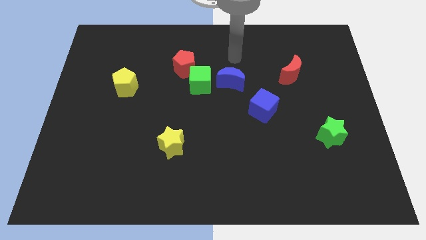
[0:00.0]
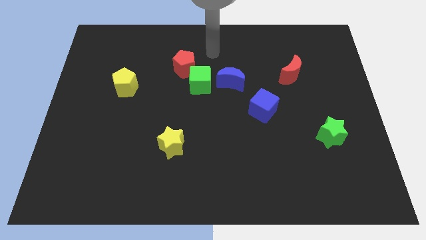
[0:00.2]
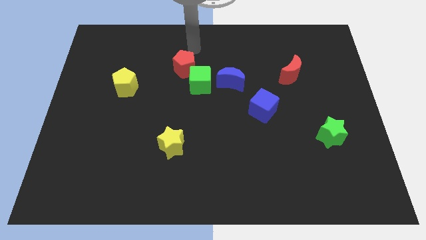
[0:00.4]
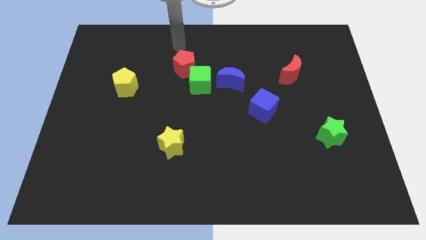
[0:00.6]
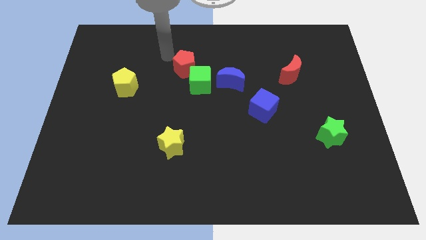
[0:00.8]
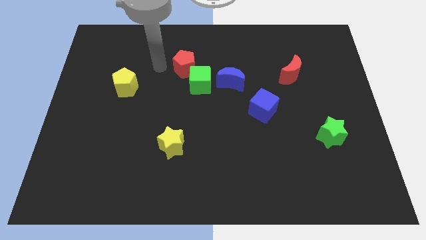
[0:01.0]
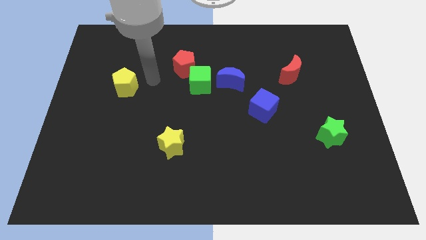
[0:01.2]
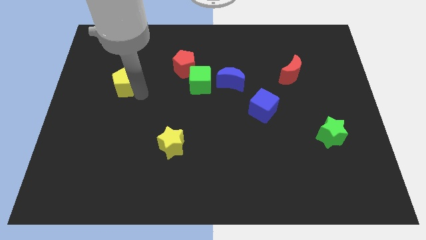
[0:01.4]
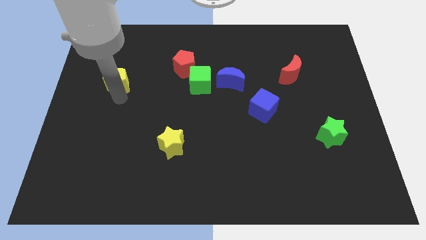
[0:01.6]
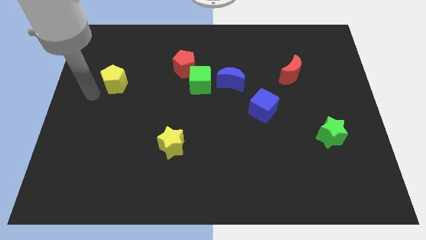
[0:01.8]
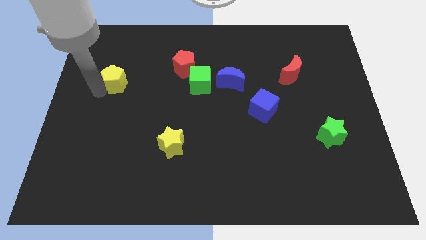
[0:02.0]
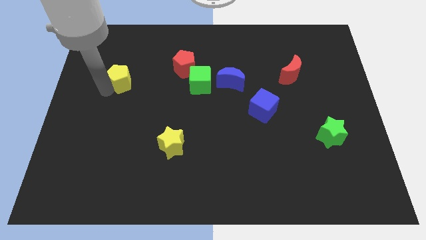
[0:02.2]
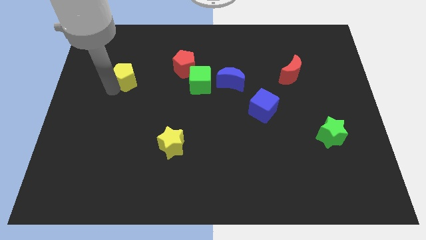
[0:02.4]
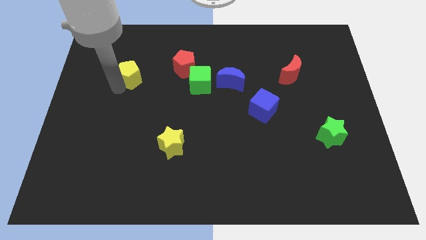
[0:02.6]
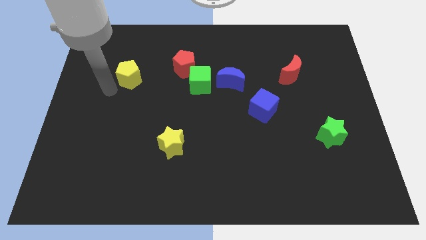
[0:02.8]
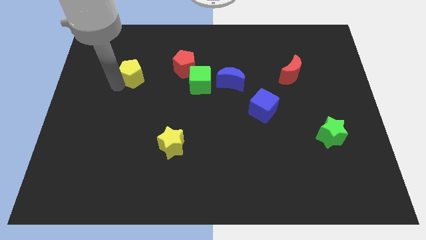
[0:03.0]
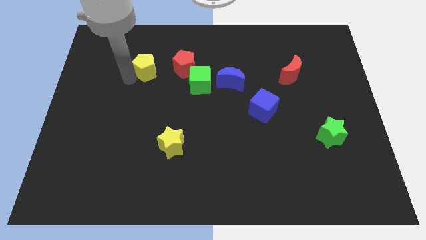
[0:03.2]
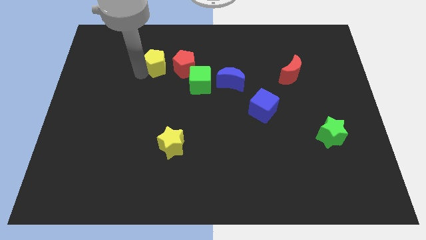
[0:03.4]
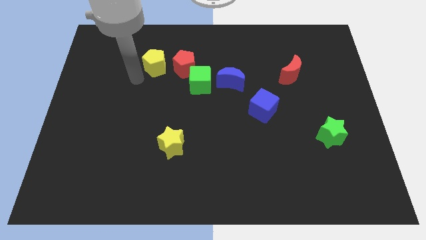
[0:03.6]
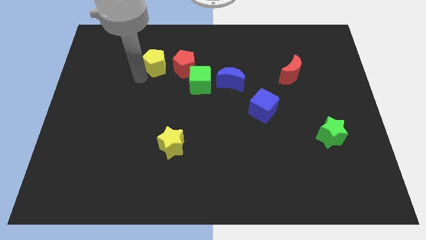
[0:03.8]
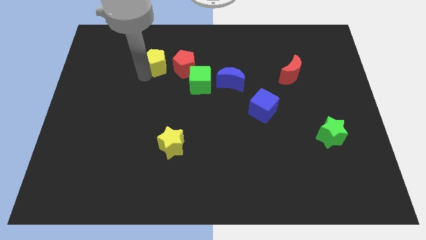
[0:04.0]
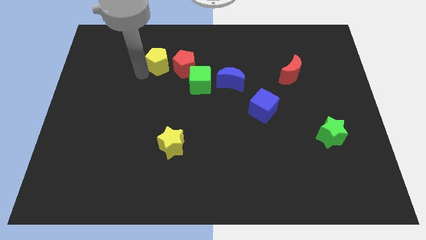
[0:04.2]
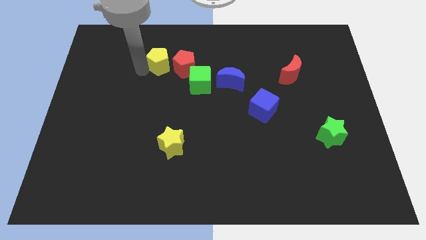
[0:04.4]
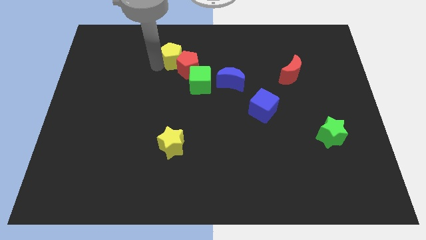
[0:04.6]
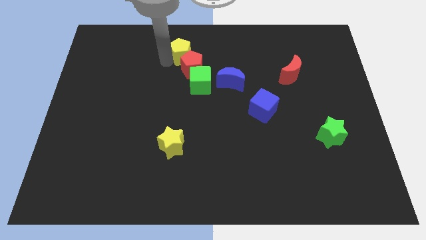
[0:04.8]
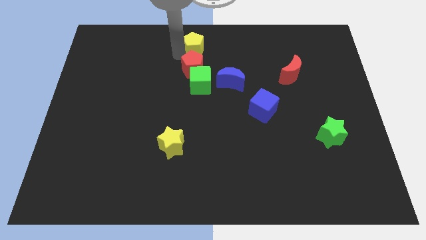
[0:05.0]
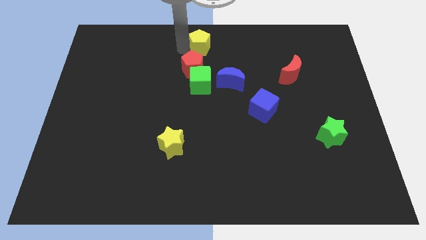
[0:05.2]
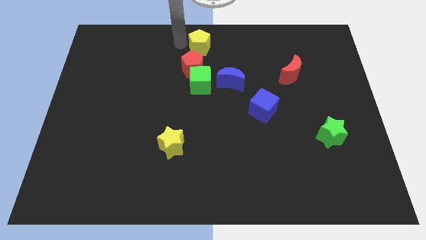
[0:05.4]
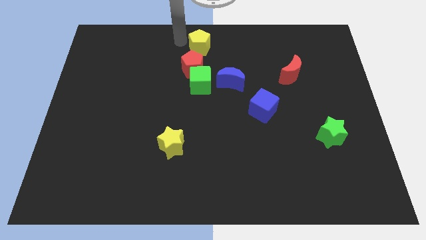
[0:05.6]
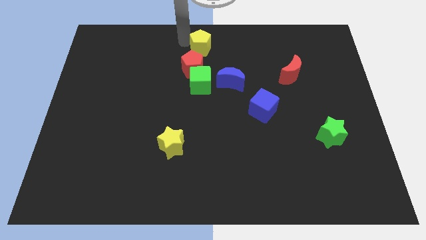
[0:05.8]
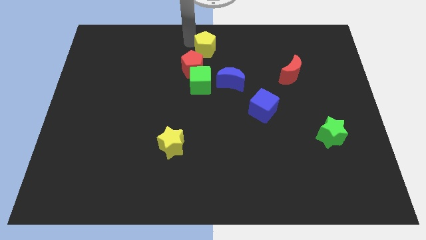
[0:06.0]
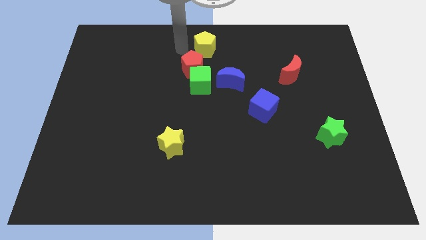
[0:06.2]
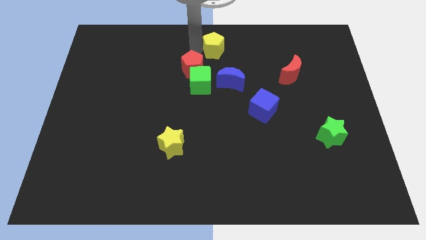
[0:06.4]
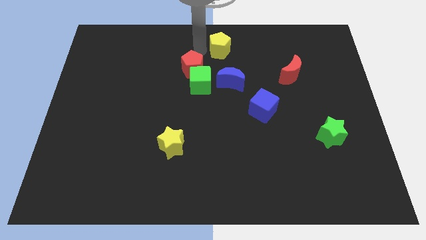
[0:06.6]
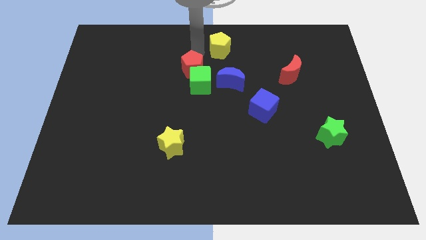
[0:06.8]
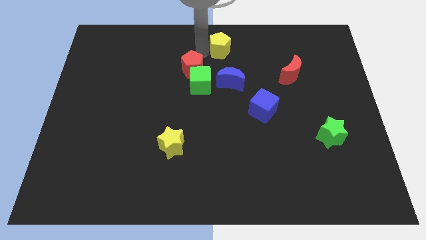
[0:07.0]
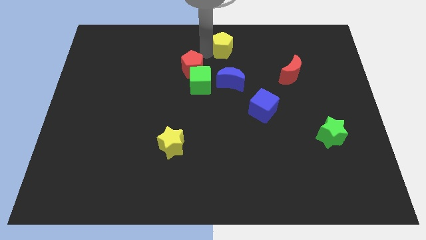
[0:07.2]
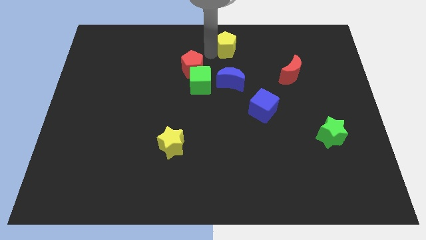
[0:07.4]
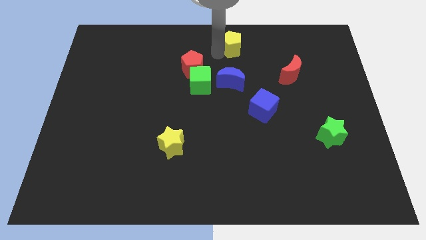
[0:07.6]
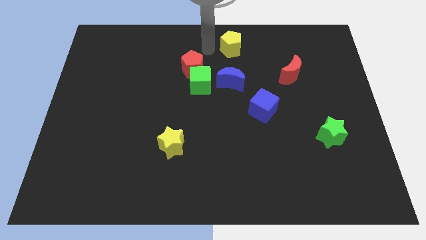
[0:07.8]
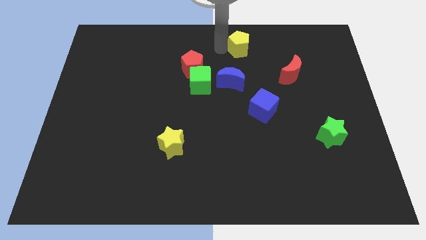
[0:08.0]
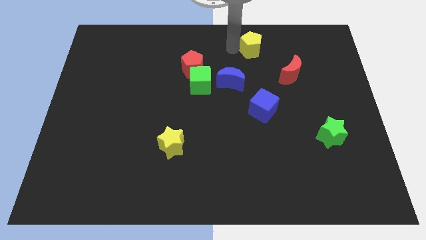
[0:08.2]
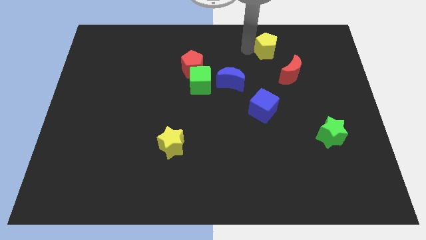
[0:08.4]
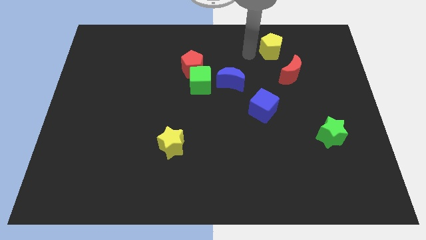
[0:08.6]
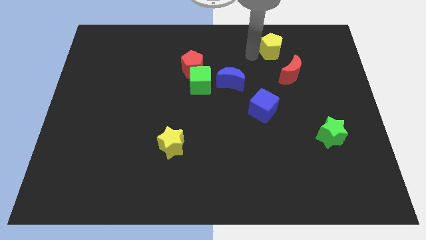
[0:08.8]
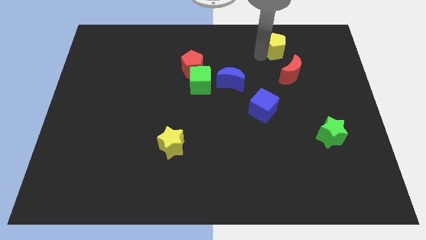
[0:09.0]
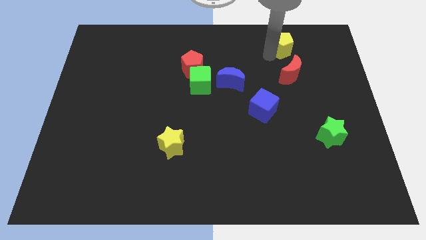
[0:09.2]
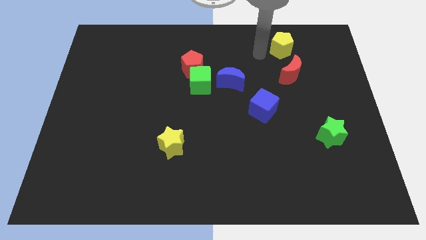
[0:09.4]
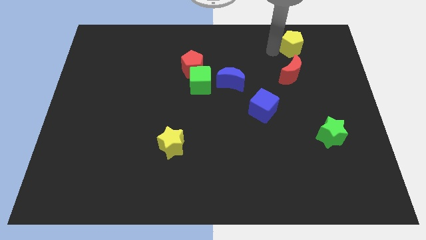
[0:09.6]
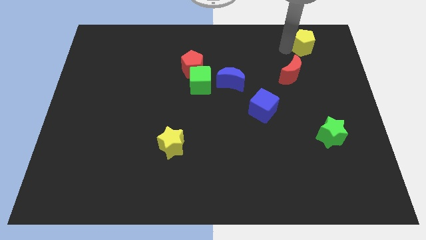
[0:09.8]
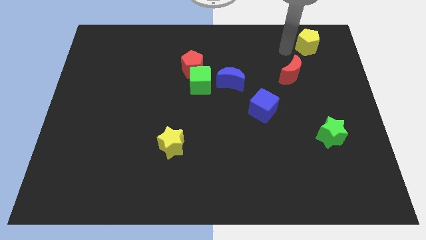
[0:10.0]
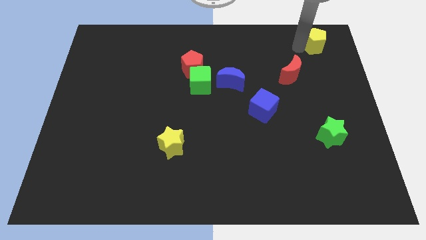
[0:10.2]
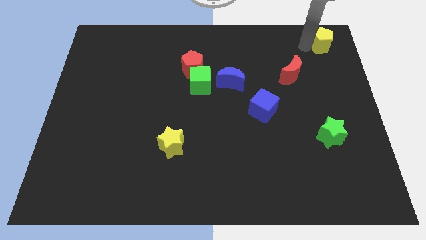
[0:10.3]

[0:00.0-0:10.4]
push the yellow pentagon to the upper right corner

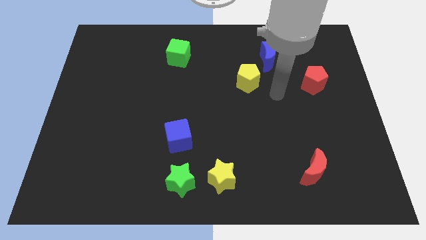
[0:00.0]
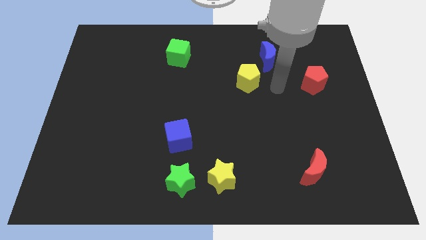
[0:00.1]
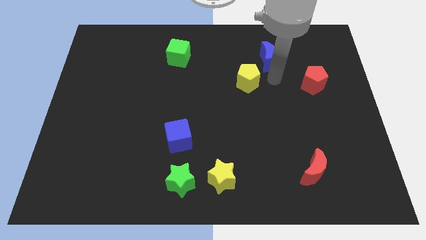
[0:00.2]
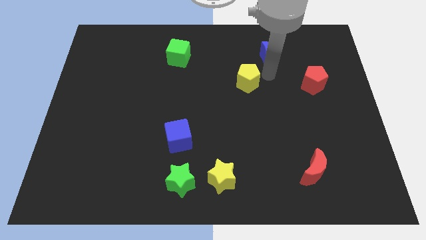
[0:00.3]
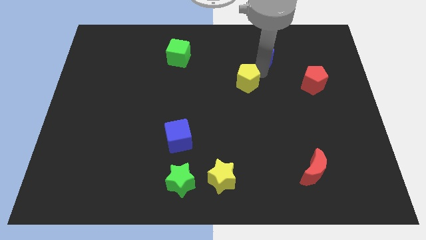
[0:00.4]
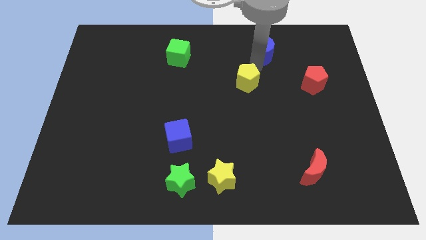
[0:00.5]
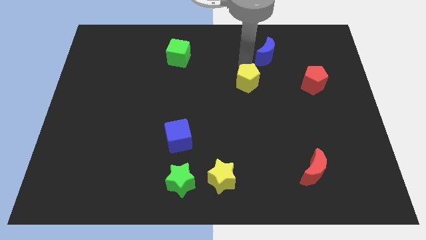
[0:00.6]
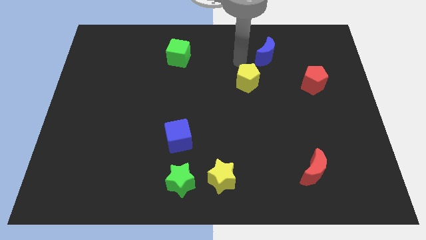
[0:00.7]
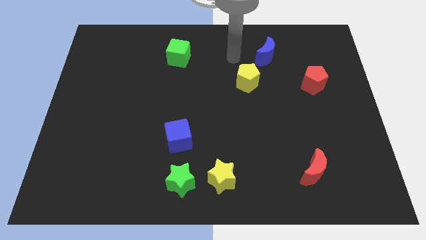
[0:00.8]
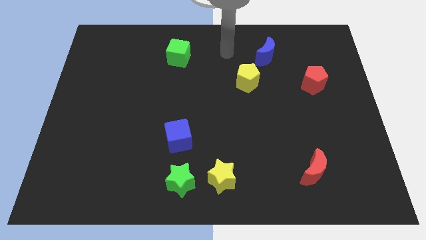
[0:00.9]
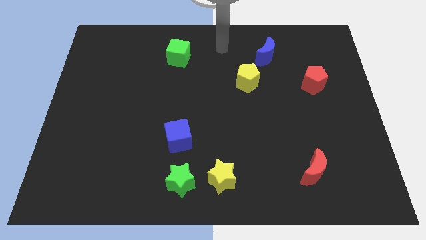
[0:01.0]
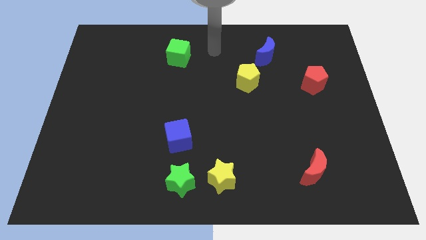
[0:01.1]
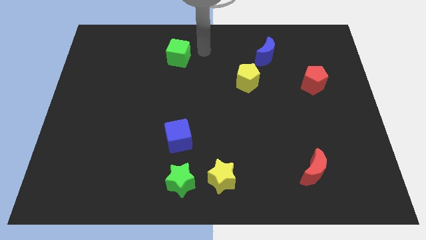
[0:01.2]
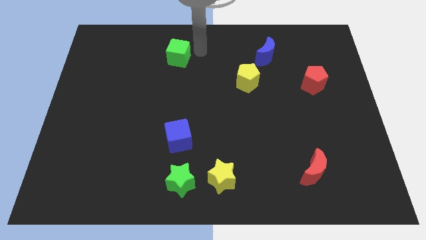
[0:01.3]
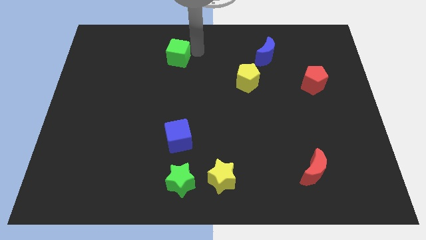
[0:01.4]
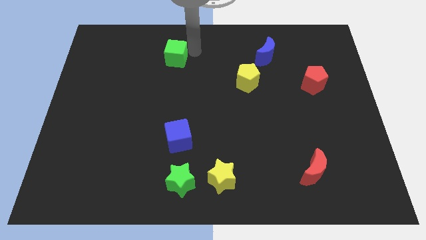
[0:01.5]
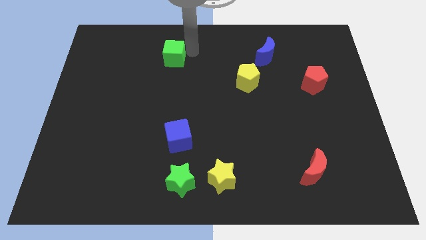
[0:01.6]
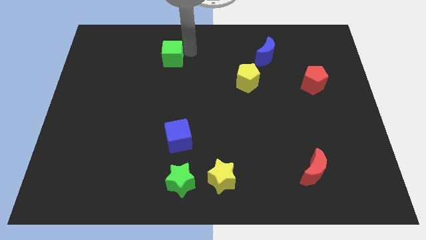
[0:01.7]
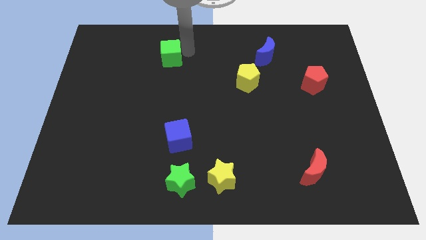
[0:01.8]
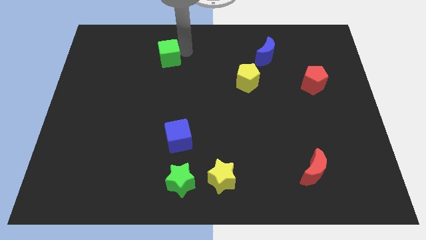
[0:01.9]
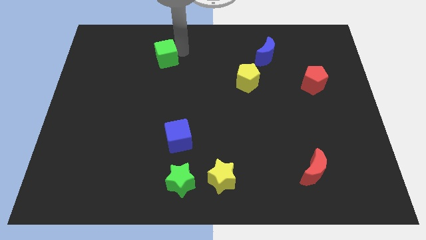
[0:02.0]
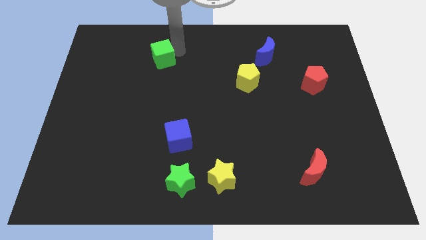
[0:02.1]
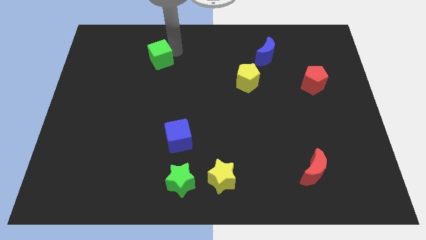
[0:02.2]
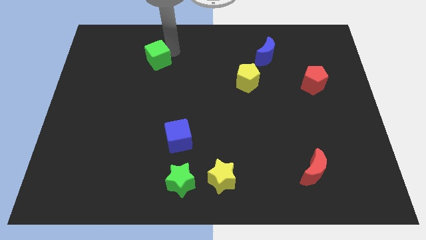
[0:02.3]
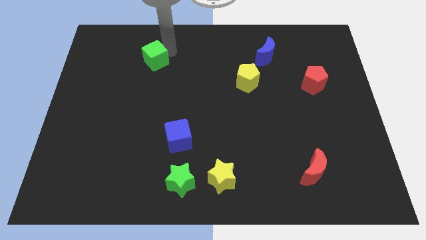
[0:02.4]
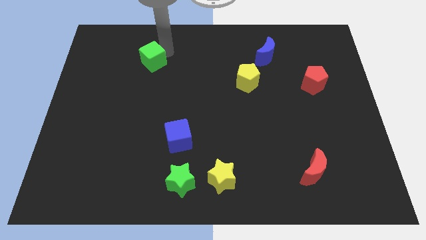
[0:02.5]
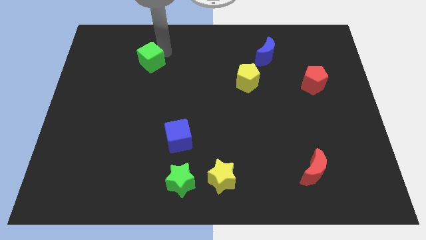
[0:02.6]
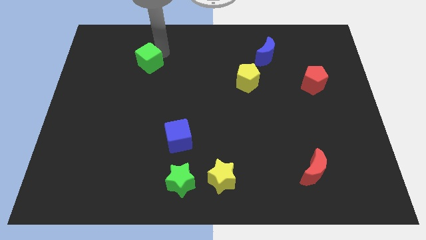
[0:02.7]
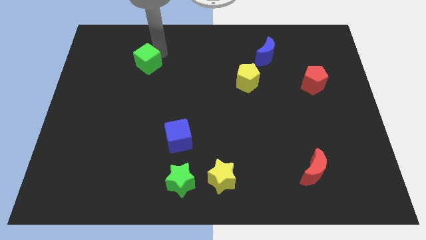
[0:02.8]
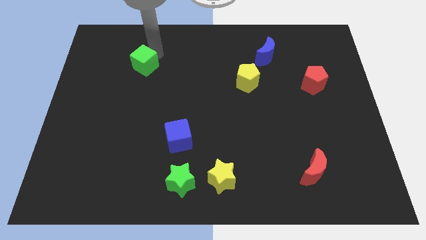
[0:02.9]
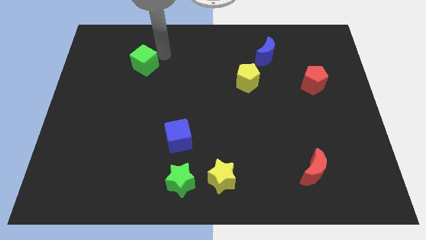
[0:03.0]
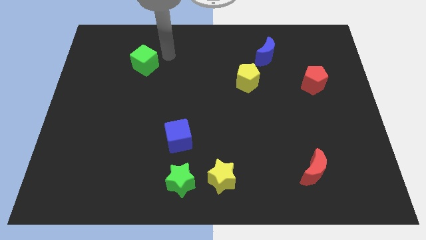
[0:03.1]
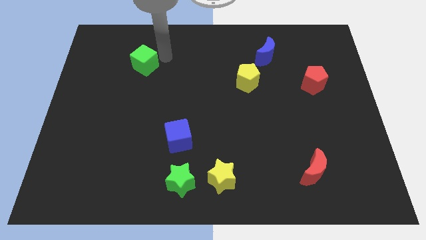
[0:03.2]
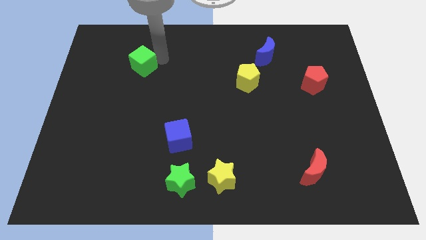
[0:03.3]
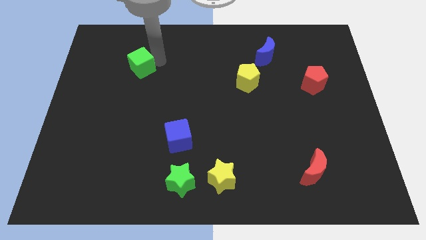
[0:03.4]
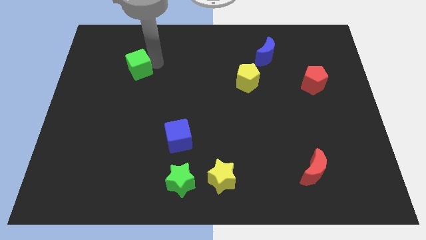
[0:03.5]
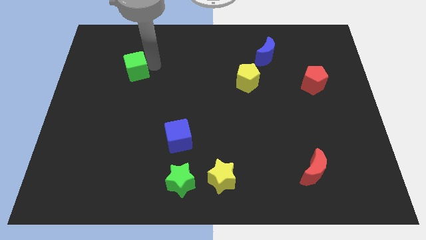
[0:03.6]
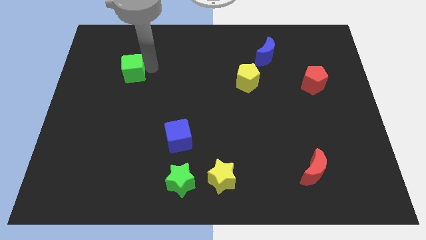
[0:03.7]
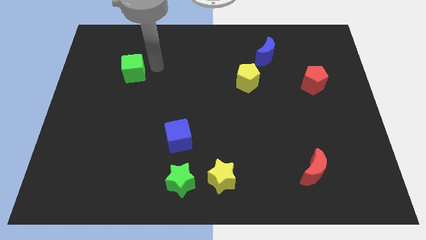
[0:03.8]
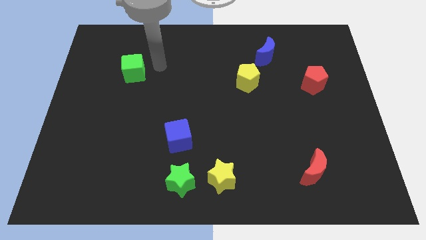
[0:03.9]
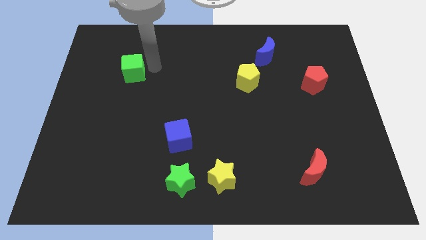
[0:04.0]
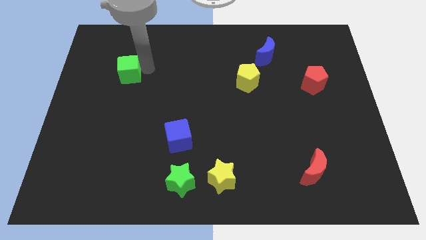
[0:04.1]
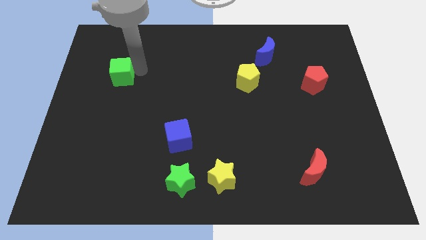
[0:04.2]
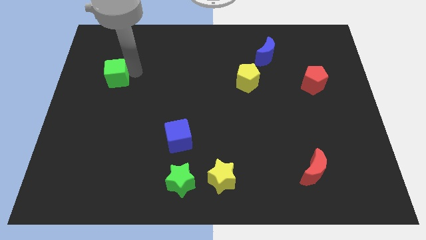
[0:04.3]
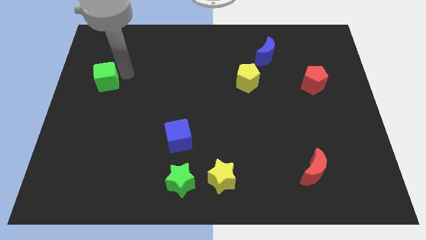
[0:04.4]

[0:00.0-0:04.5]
slide the green cube to the left side
